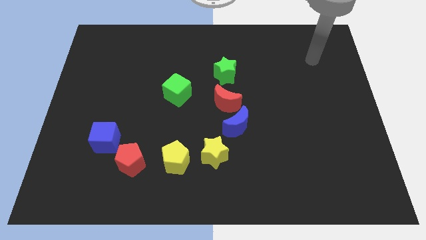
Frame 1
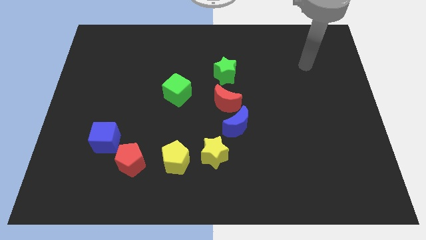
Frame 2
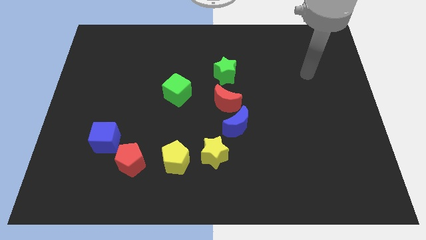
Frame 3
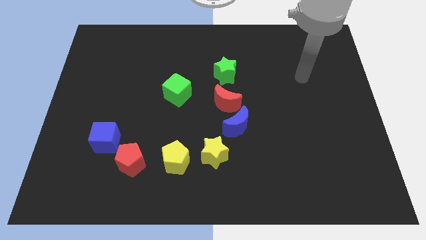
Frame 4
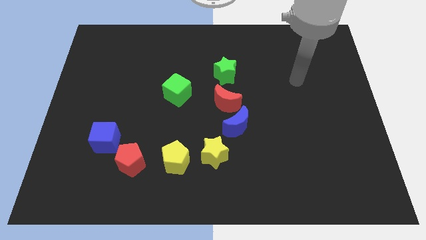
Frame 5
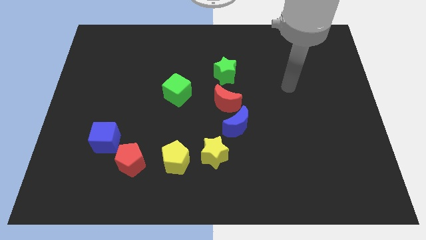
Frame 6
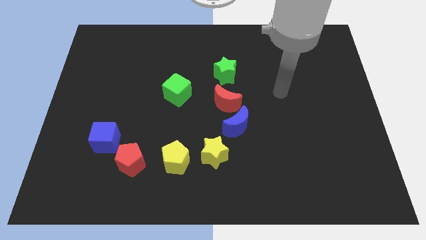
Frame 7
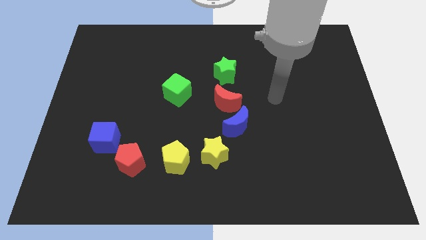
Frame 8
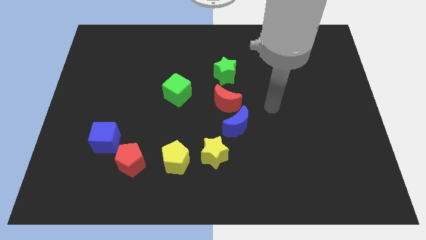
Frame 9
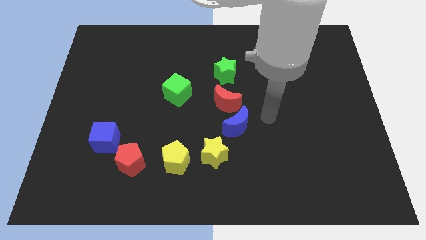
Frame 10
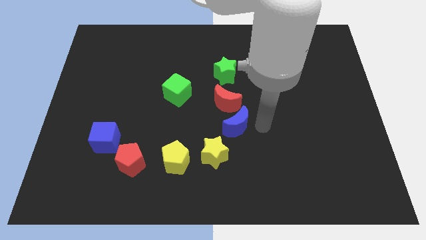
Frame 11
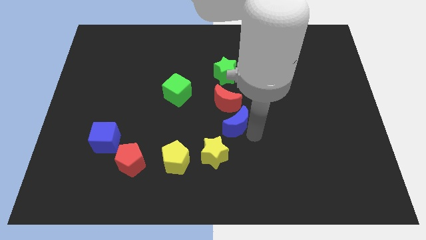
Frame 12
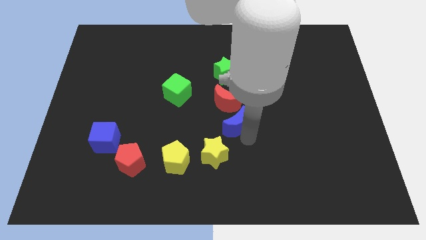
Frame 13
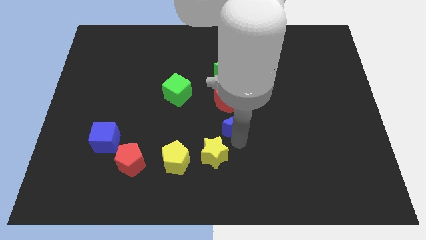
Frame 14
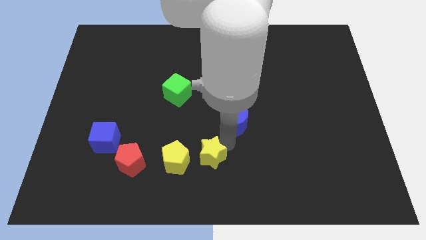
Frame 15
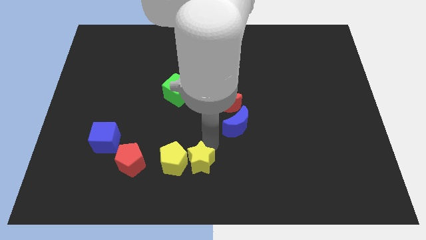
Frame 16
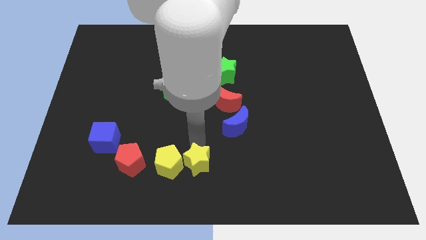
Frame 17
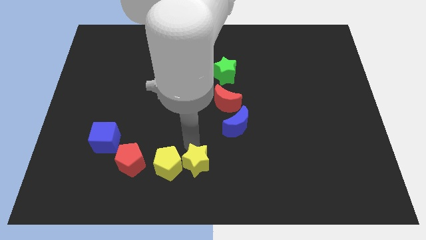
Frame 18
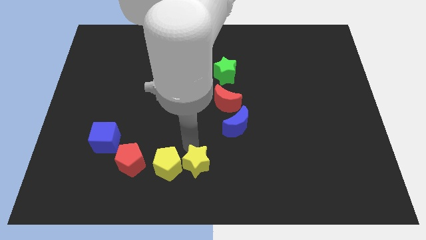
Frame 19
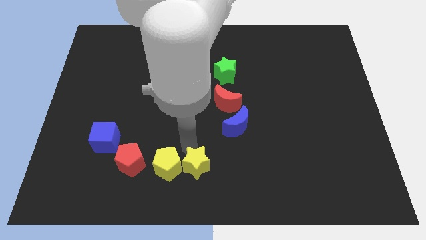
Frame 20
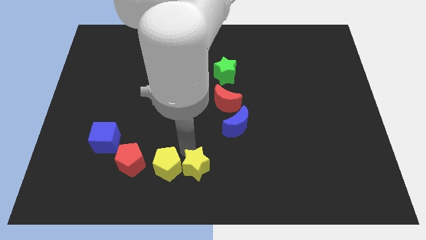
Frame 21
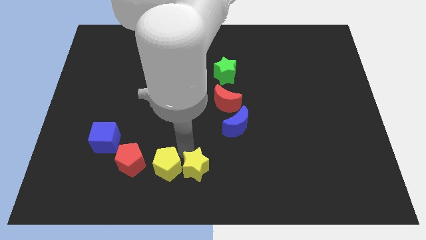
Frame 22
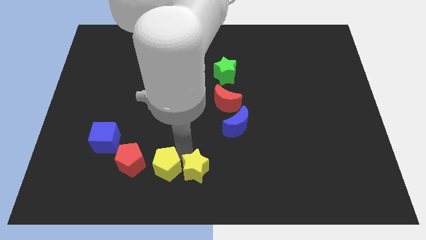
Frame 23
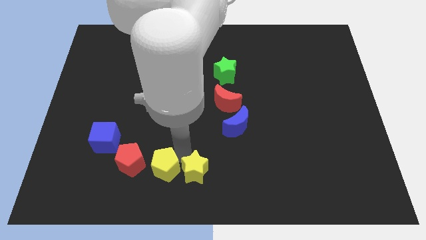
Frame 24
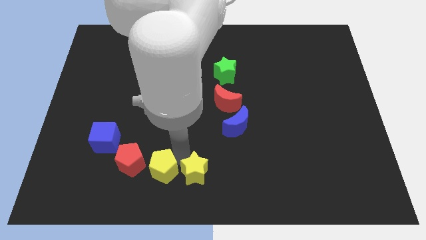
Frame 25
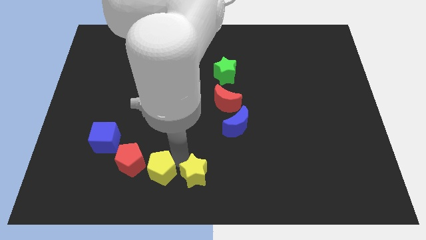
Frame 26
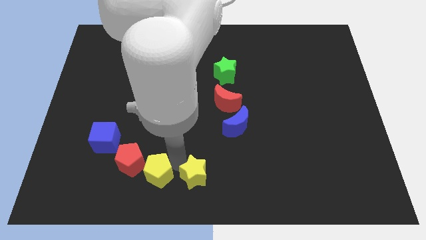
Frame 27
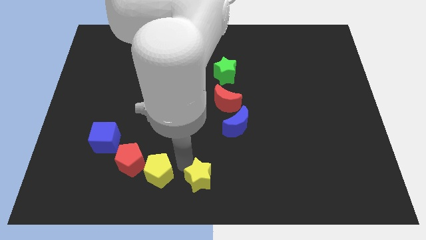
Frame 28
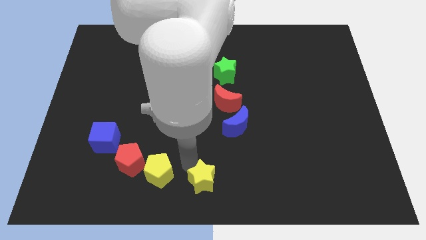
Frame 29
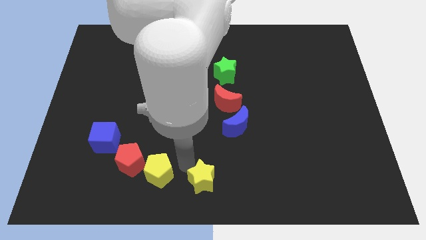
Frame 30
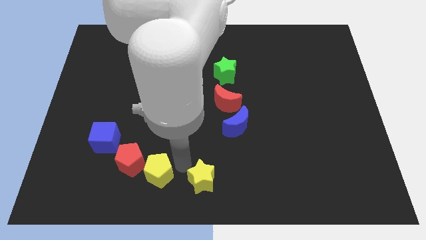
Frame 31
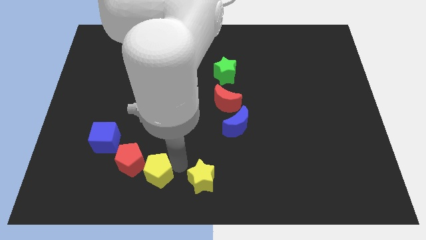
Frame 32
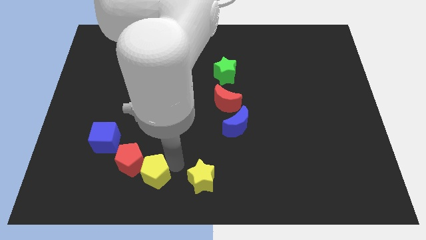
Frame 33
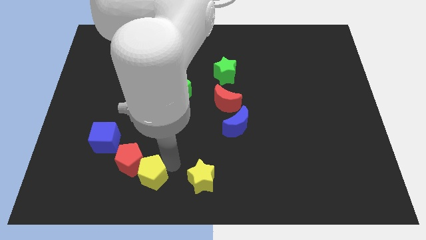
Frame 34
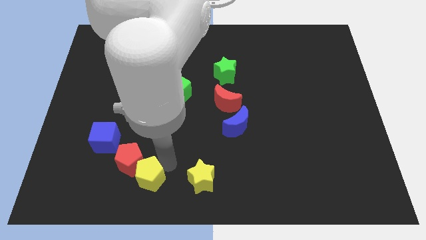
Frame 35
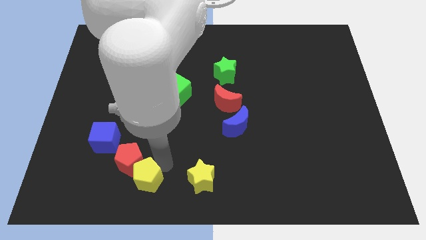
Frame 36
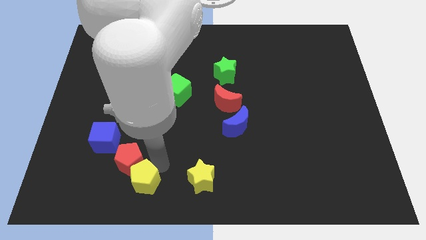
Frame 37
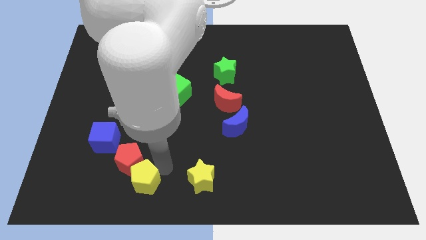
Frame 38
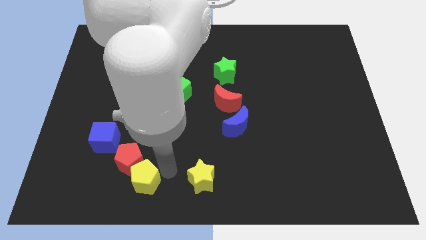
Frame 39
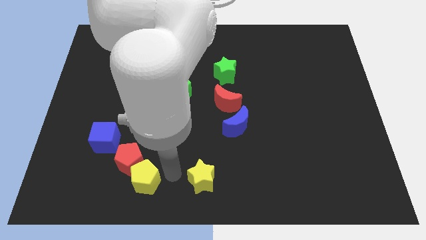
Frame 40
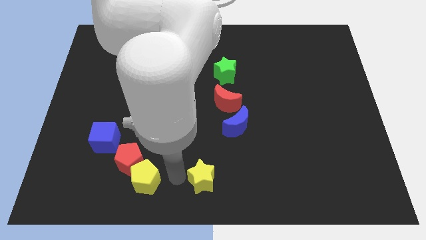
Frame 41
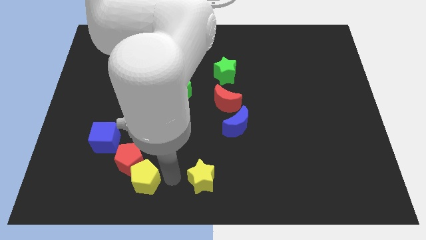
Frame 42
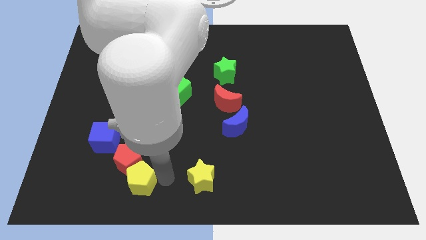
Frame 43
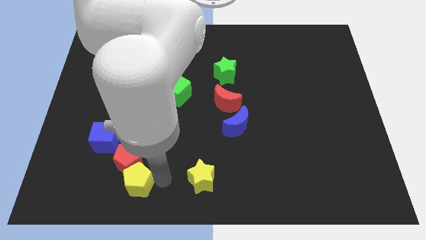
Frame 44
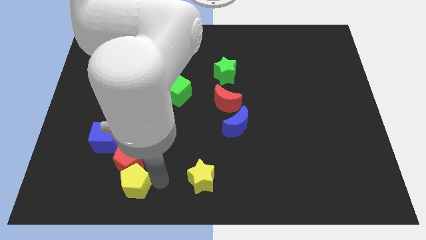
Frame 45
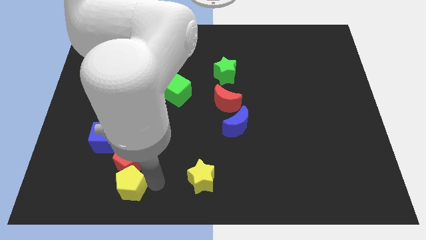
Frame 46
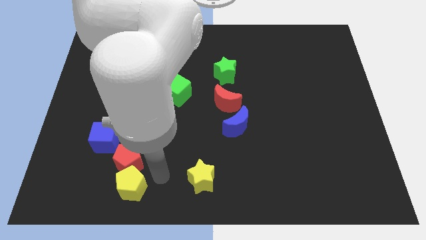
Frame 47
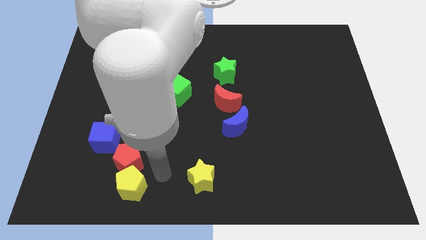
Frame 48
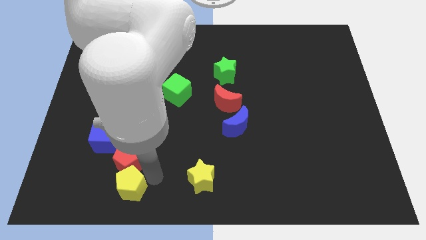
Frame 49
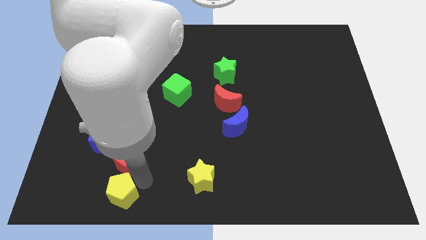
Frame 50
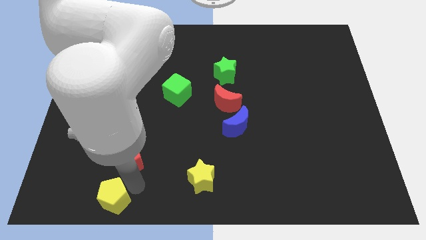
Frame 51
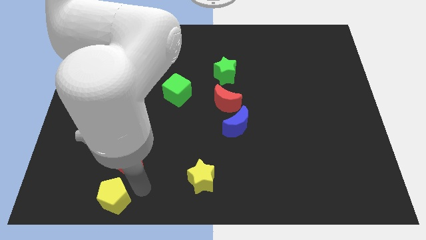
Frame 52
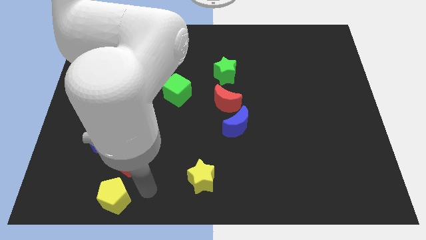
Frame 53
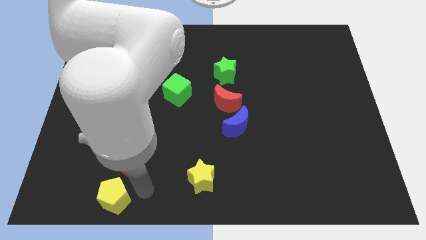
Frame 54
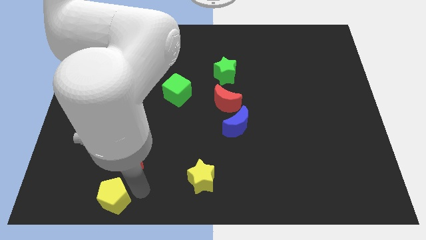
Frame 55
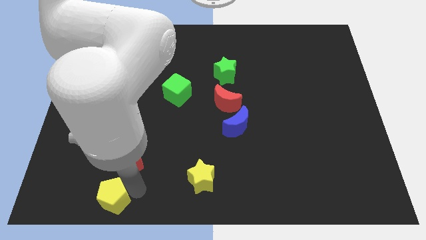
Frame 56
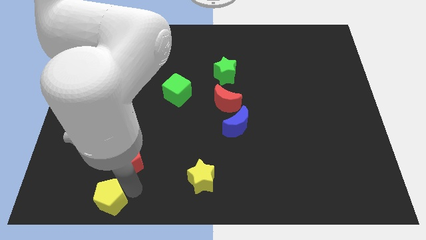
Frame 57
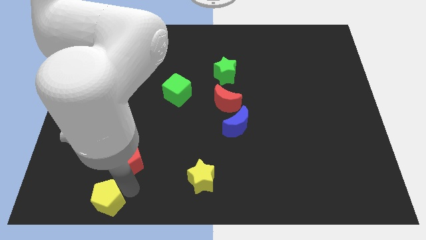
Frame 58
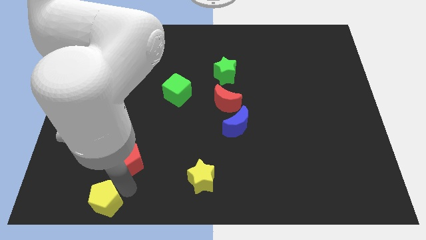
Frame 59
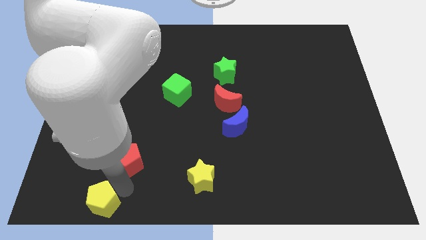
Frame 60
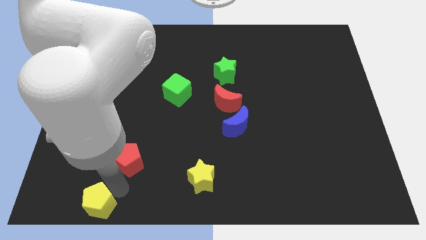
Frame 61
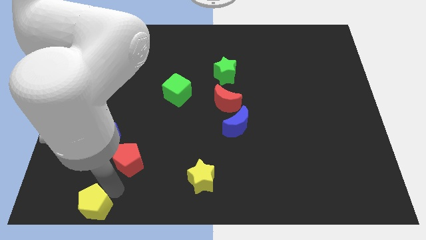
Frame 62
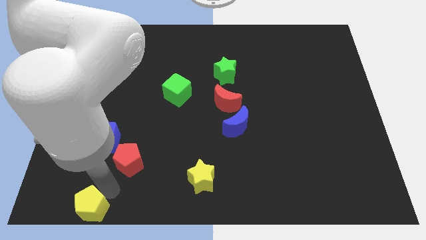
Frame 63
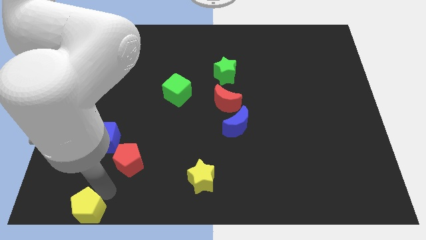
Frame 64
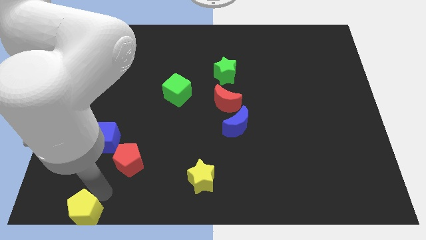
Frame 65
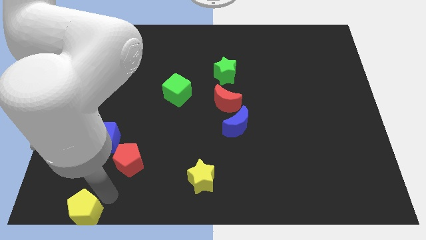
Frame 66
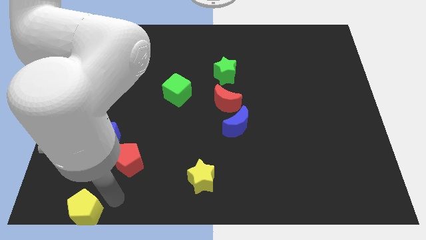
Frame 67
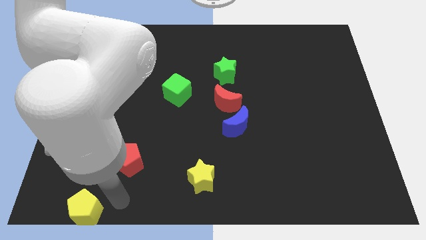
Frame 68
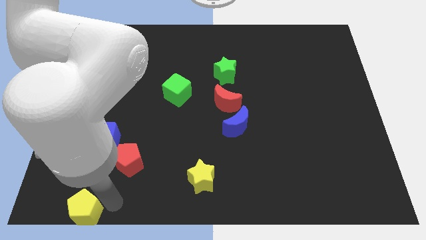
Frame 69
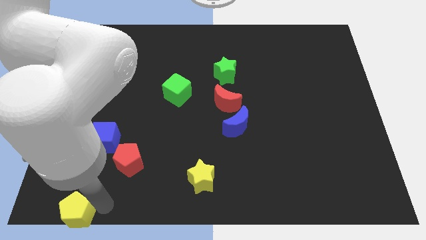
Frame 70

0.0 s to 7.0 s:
put the yellow pentagon to the bottom left corner

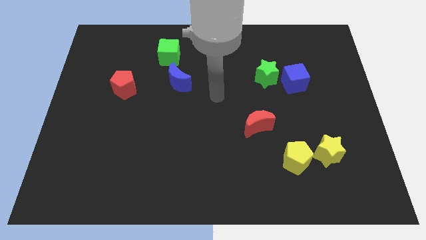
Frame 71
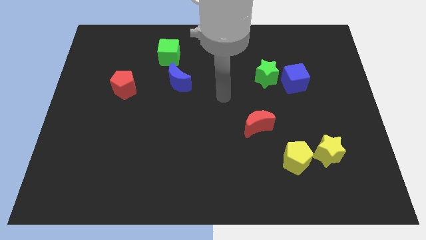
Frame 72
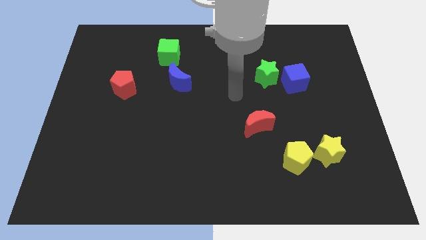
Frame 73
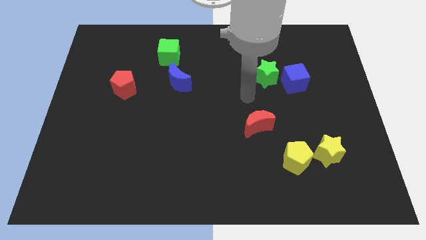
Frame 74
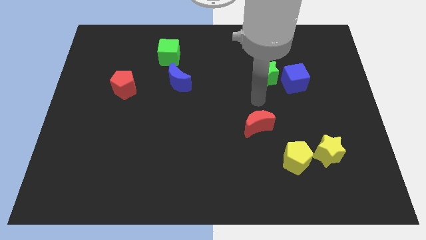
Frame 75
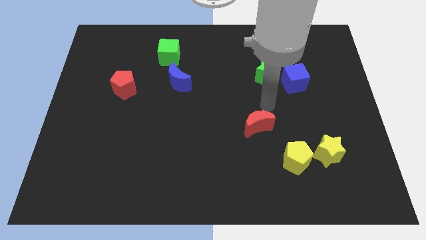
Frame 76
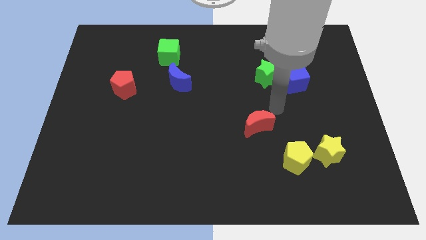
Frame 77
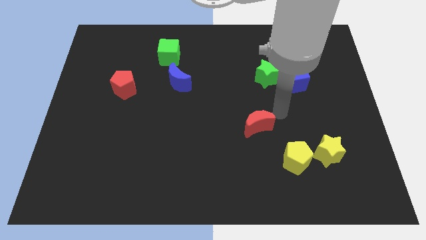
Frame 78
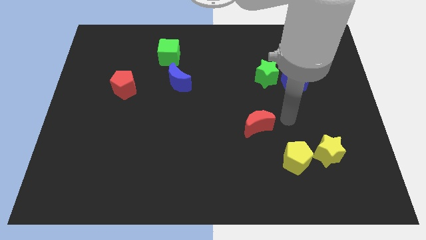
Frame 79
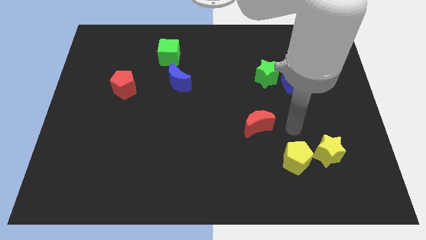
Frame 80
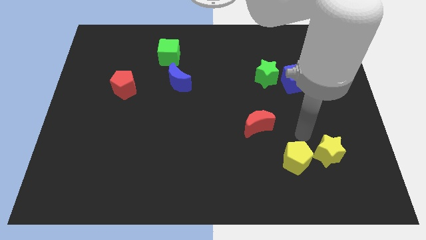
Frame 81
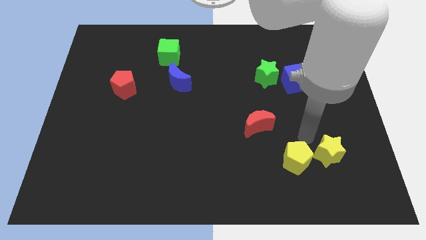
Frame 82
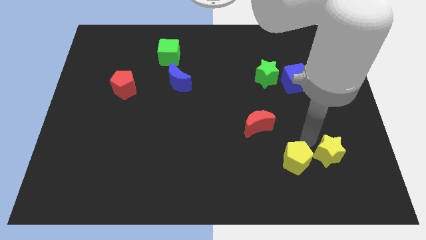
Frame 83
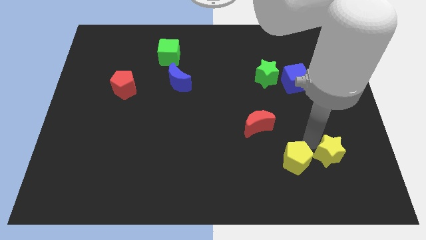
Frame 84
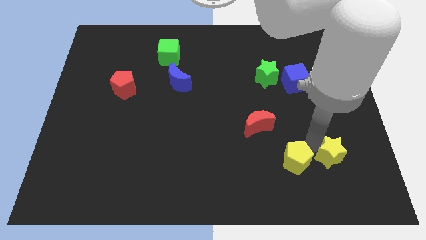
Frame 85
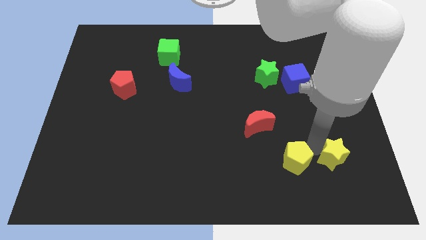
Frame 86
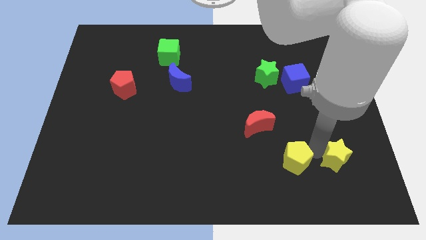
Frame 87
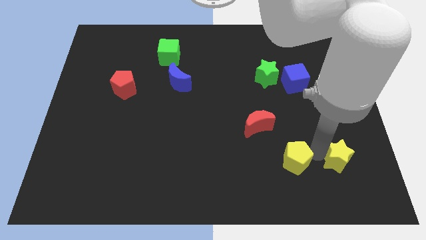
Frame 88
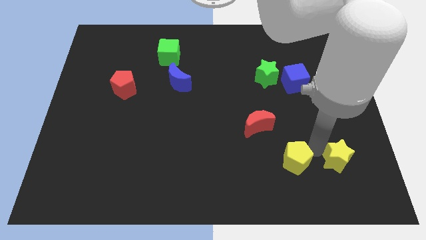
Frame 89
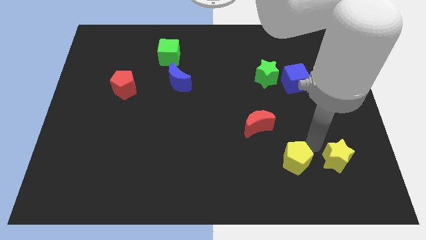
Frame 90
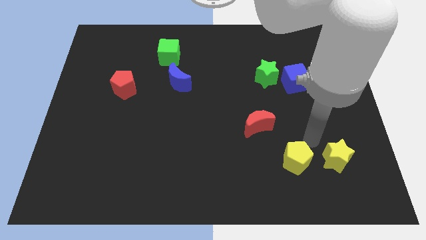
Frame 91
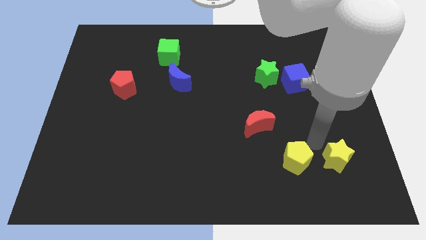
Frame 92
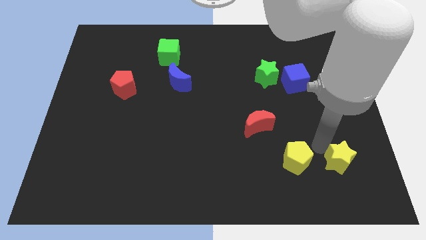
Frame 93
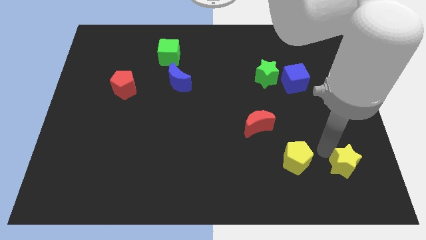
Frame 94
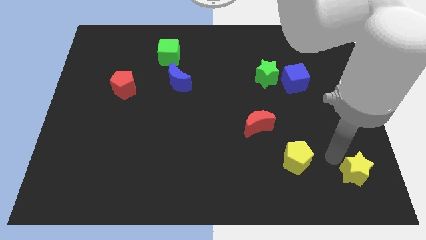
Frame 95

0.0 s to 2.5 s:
move the yellow star to the bottom right corner
